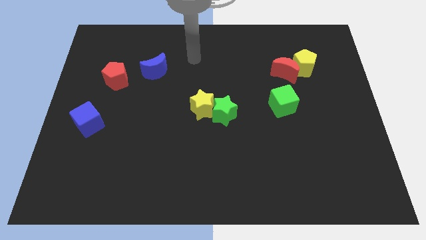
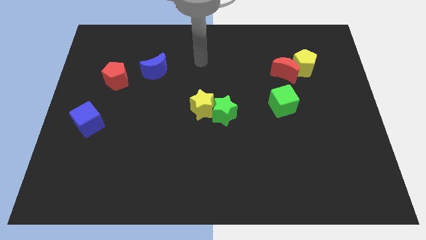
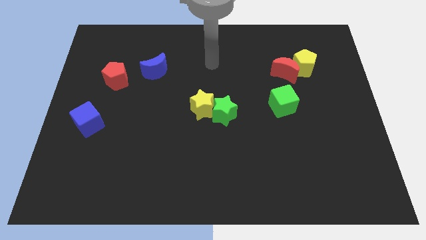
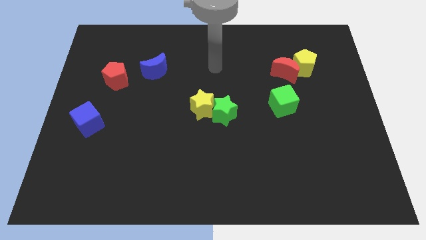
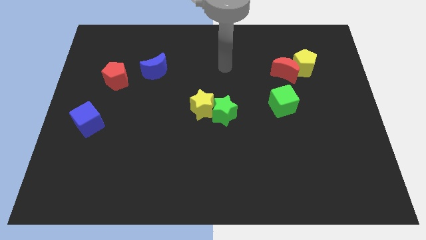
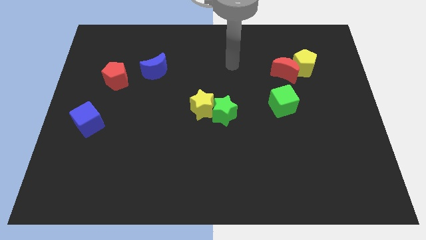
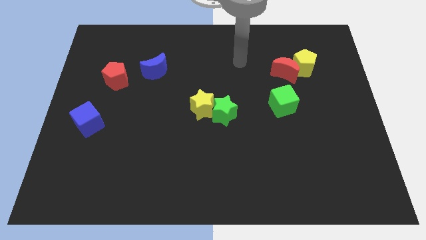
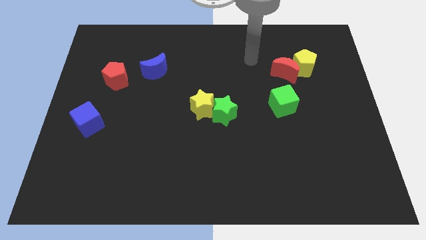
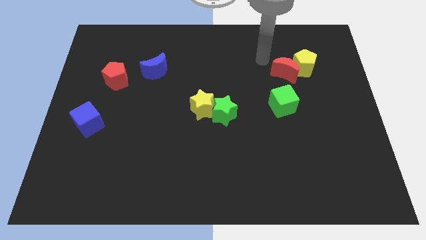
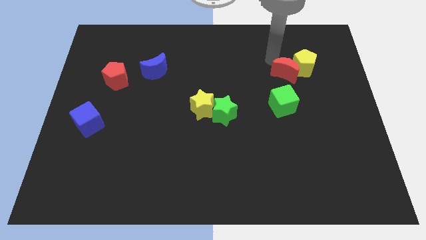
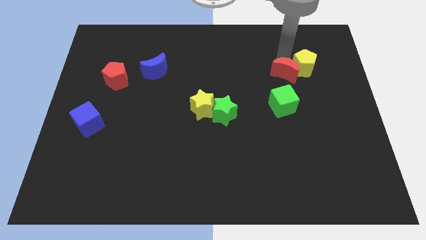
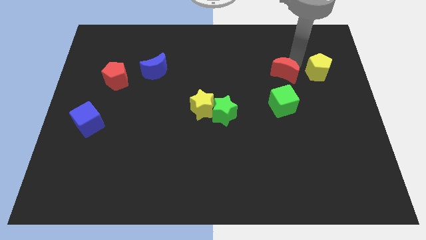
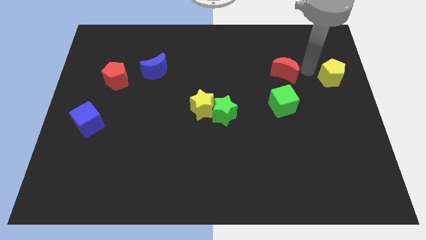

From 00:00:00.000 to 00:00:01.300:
separate the red moon from the yellow pentagon

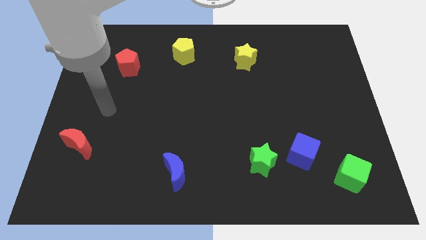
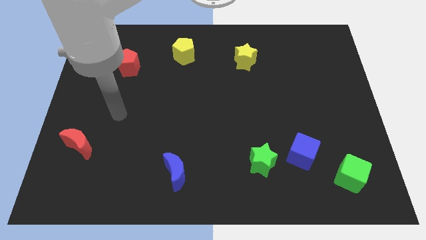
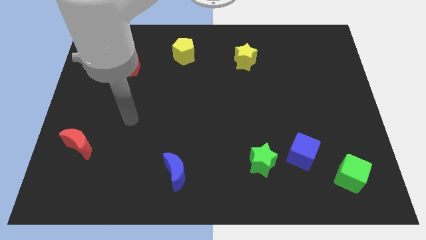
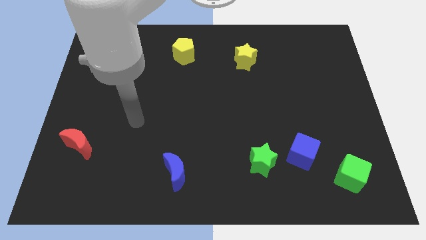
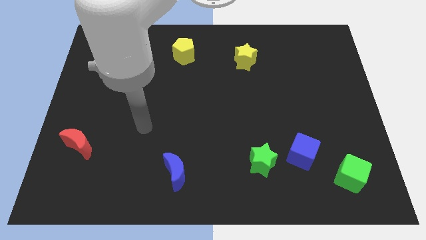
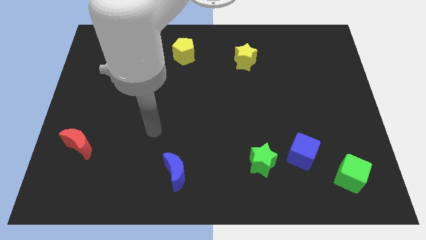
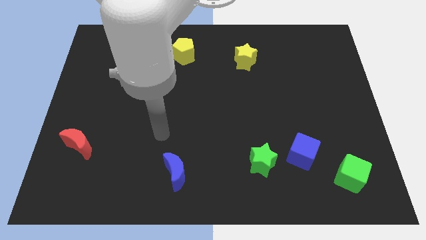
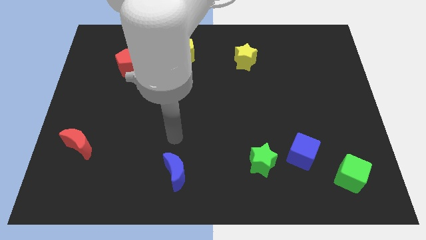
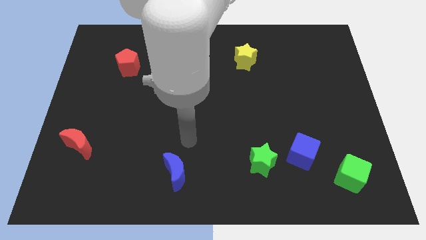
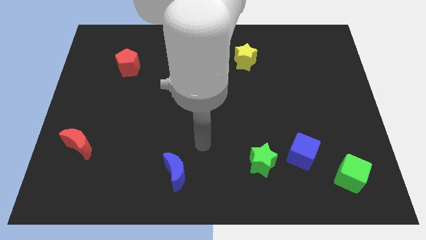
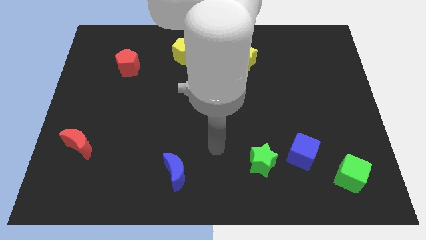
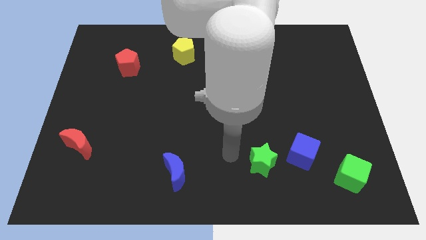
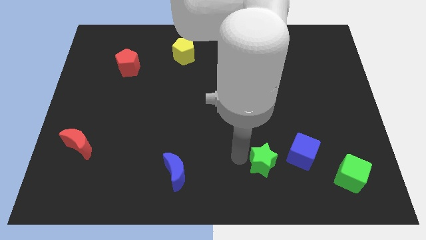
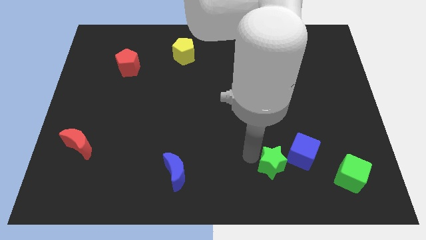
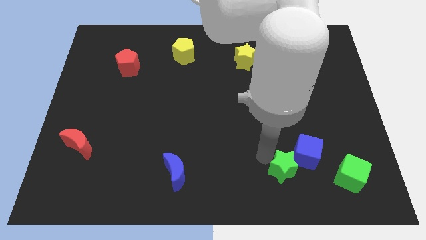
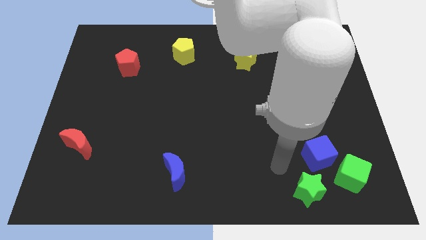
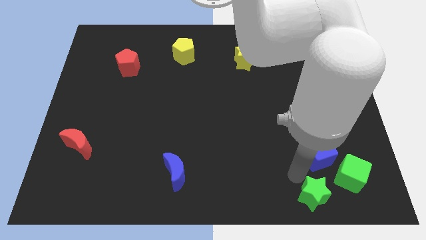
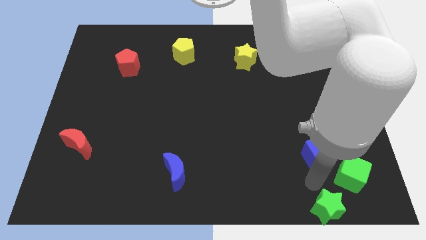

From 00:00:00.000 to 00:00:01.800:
move the blue cube away from the green star

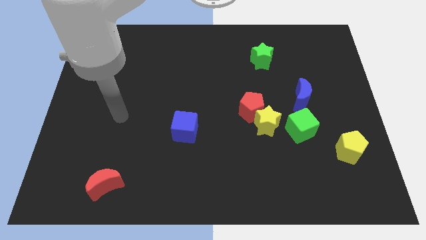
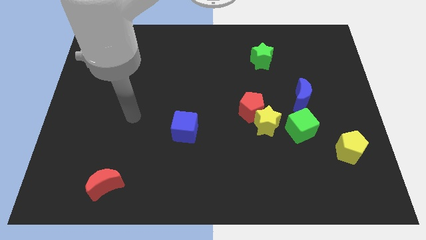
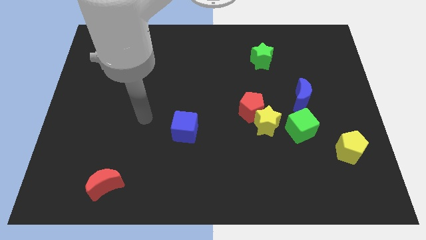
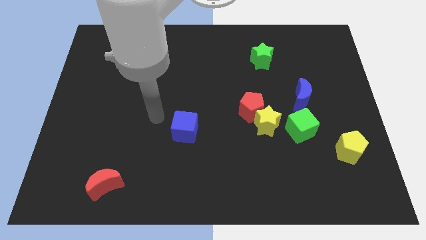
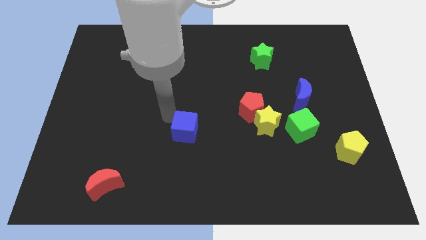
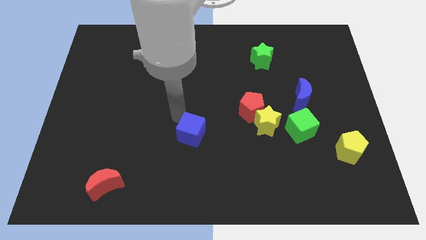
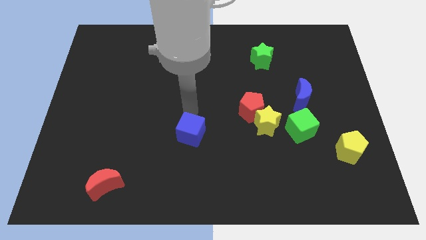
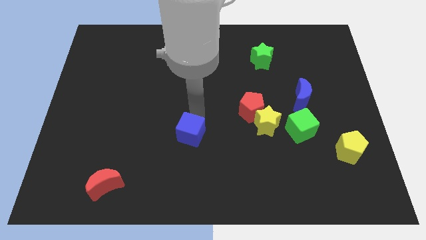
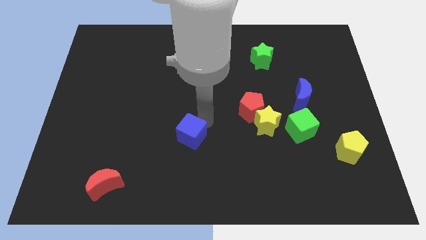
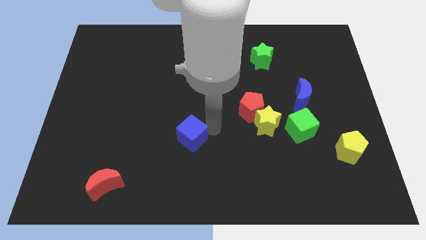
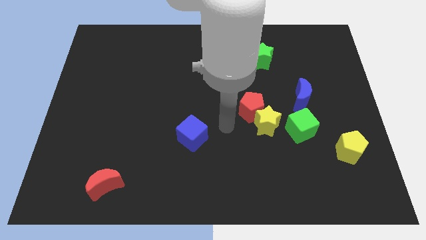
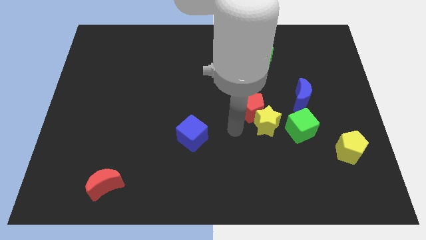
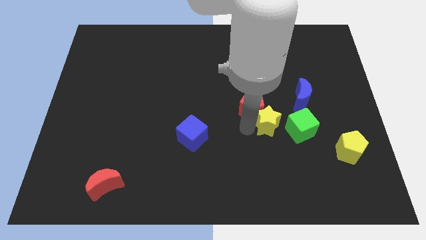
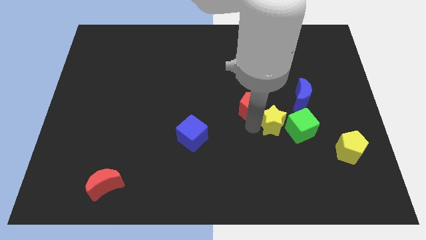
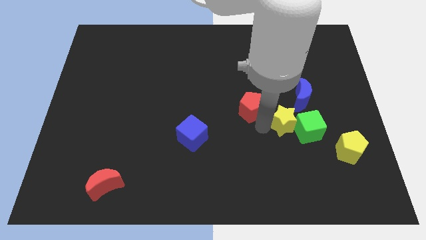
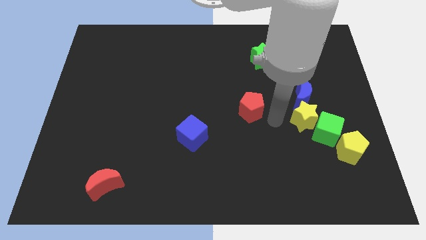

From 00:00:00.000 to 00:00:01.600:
move the red pentagon away from the yellow star

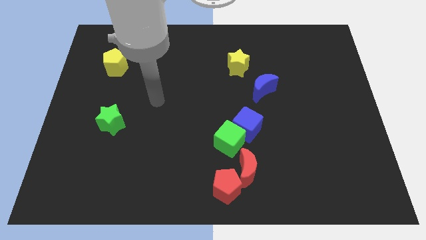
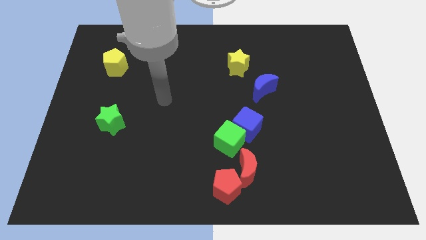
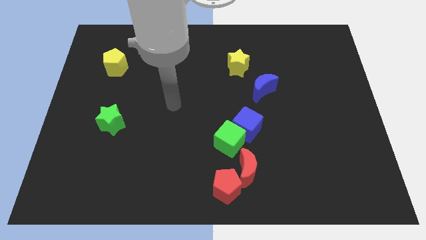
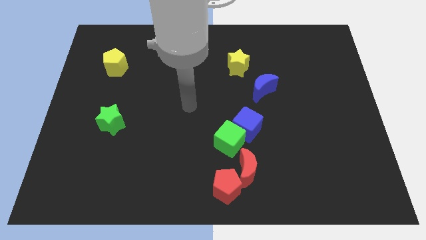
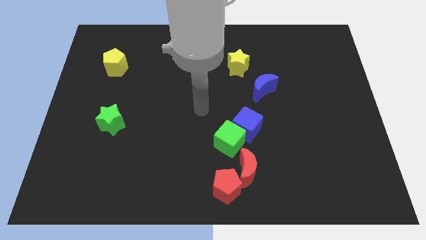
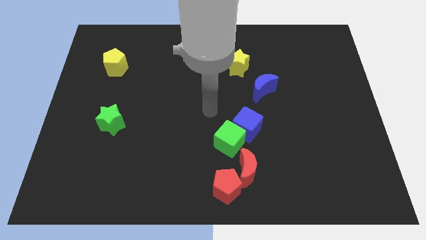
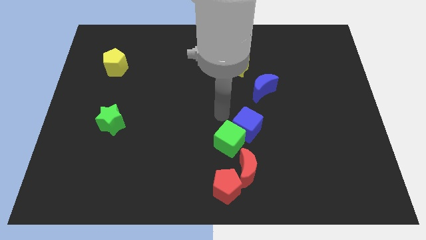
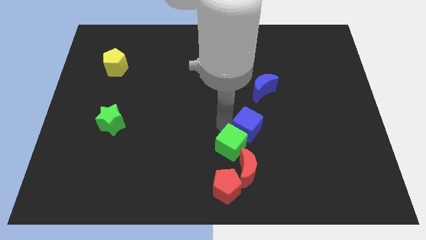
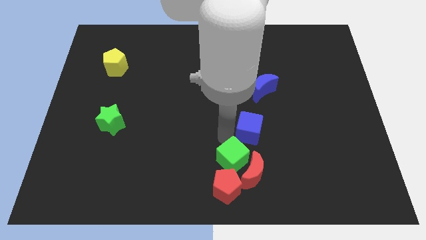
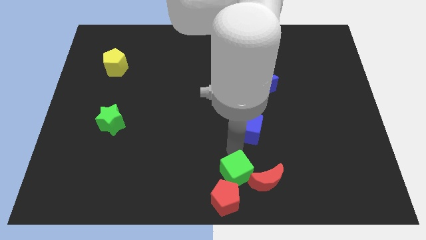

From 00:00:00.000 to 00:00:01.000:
pull the blue cube apart from the green cube

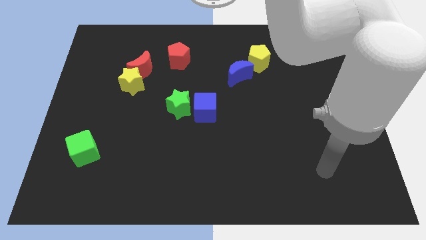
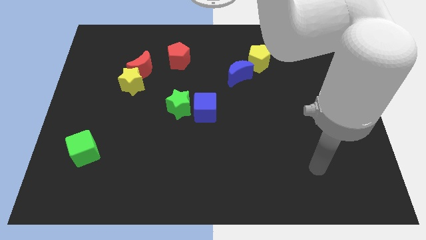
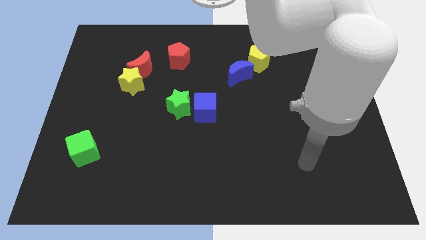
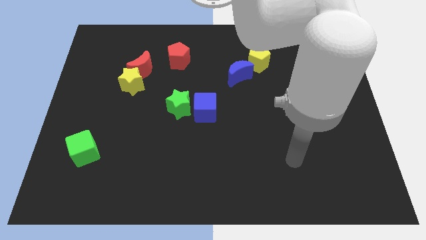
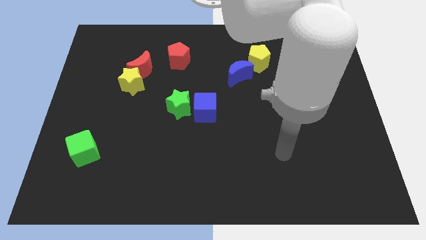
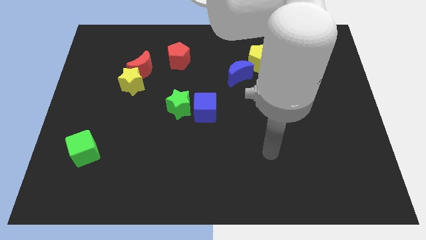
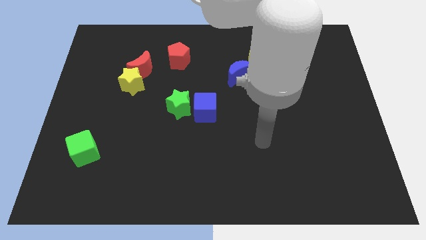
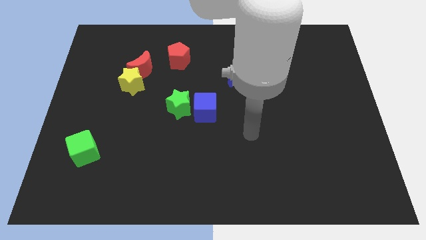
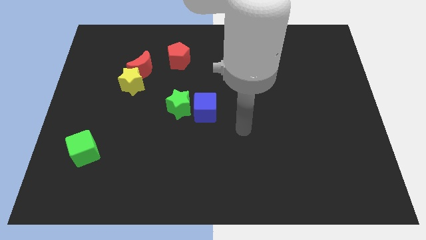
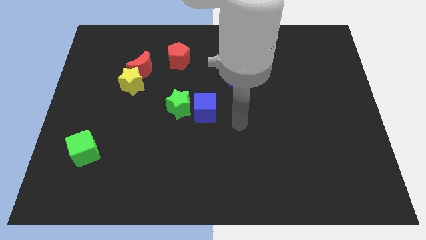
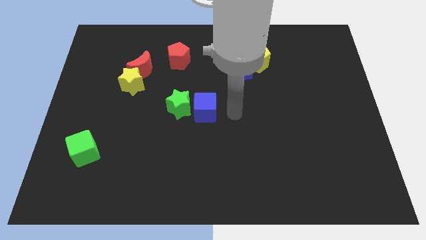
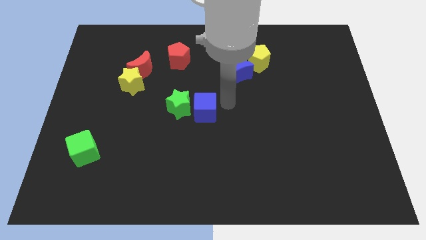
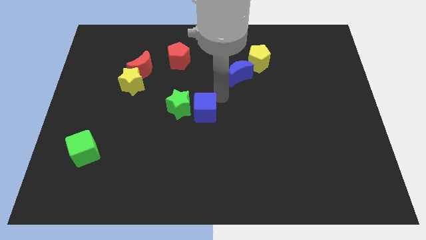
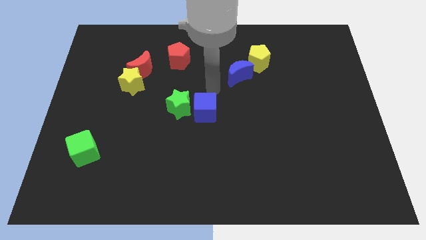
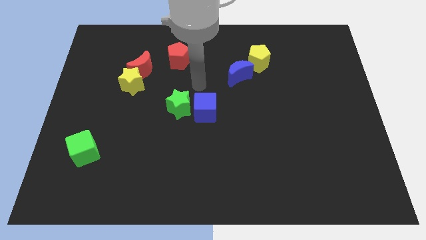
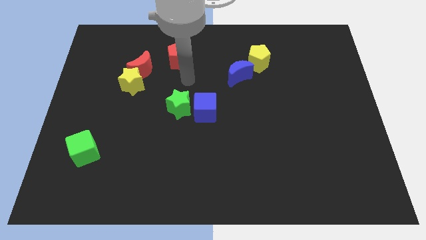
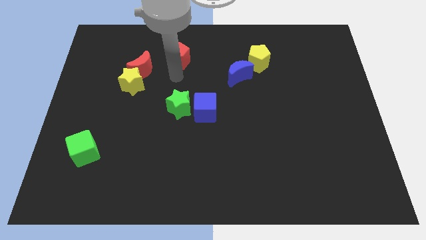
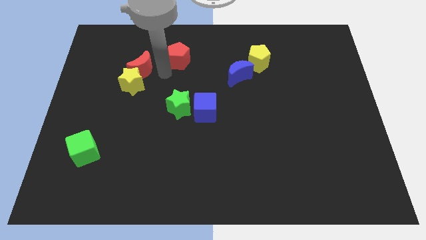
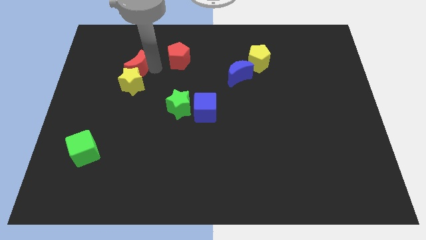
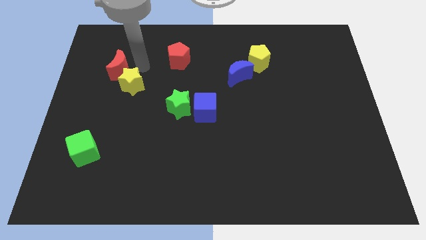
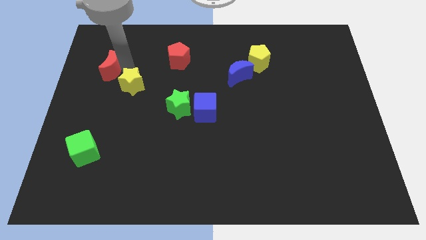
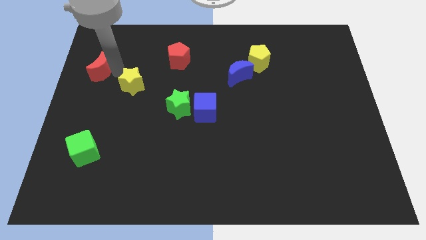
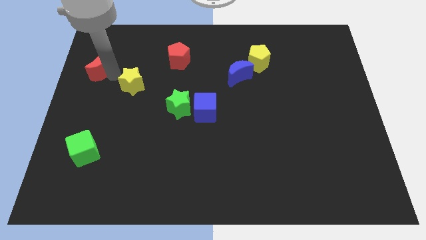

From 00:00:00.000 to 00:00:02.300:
move the yellow star away from the red moon

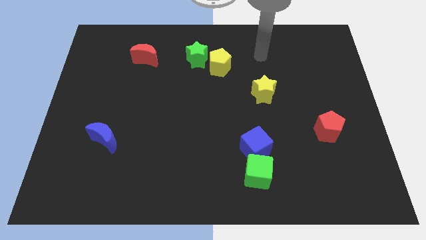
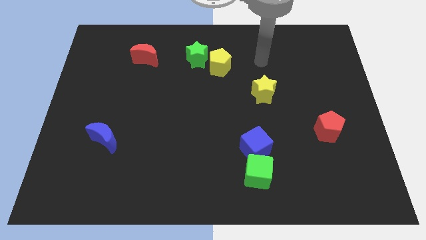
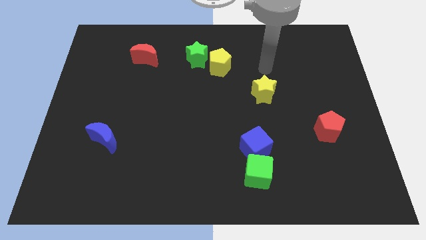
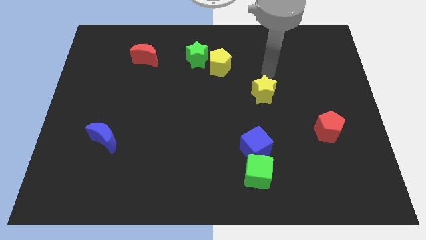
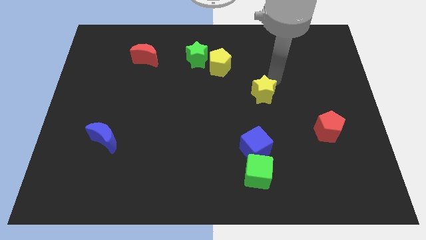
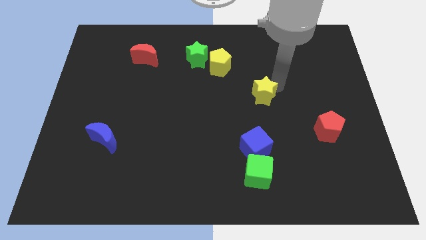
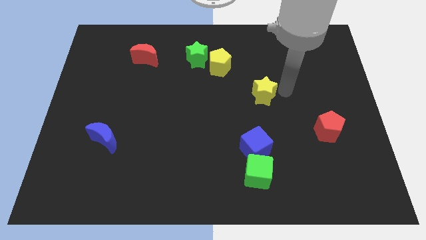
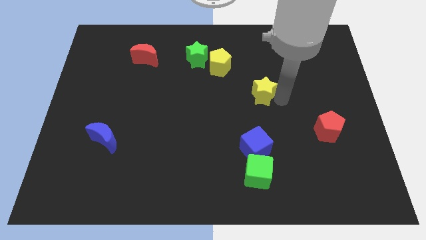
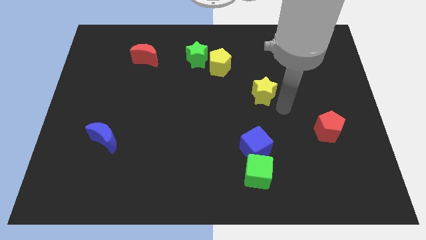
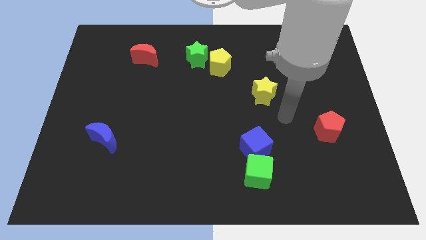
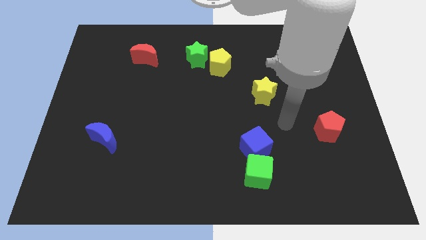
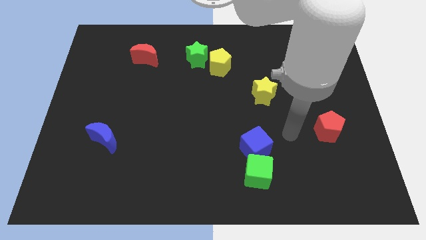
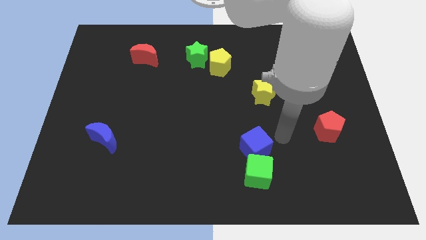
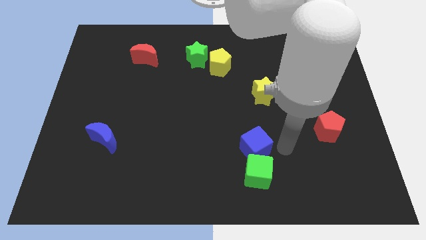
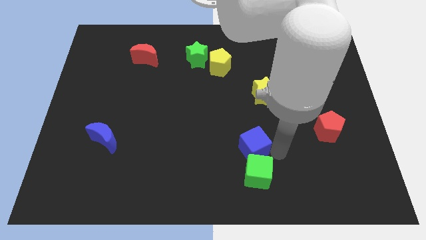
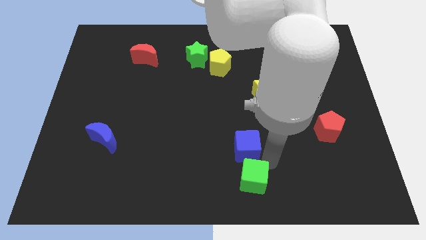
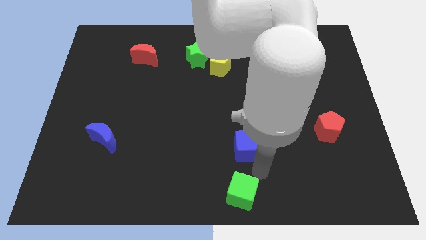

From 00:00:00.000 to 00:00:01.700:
move the blue cube away from the green cube
